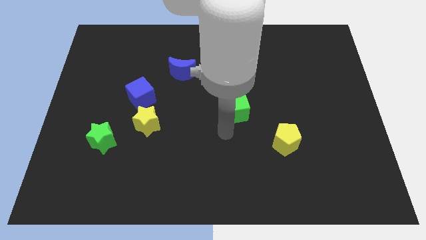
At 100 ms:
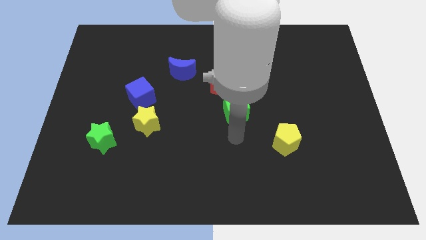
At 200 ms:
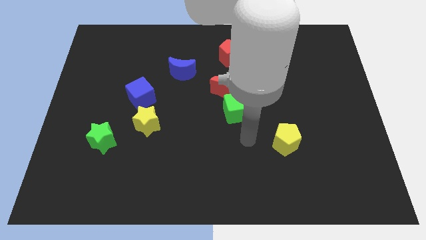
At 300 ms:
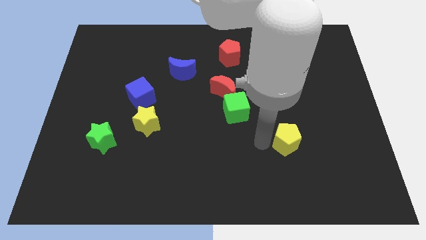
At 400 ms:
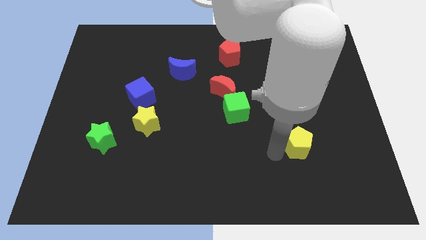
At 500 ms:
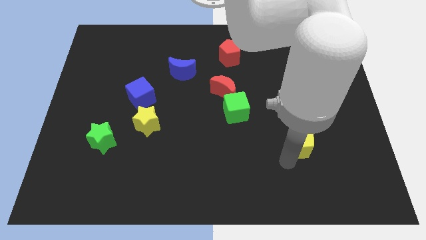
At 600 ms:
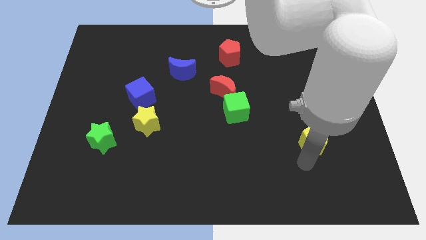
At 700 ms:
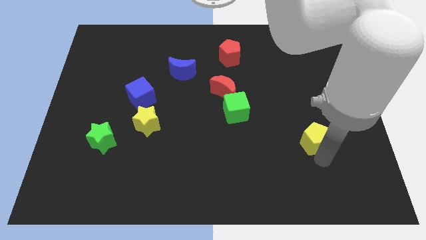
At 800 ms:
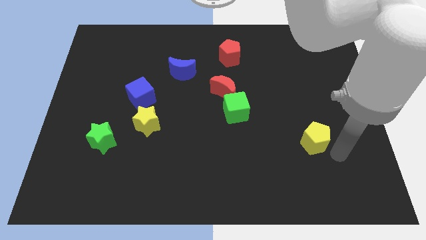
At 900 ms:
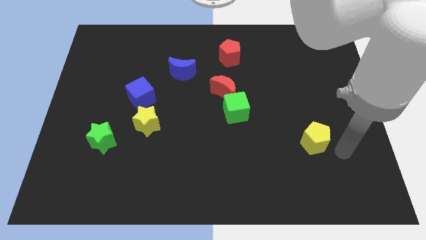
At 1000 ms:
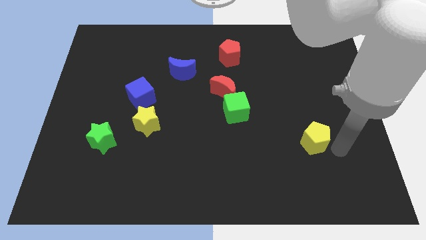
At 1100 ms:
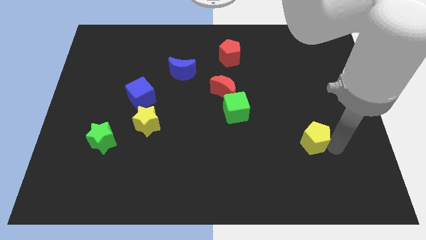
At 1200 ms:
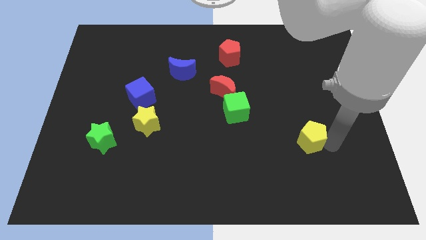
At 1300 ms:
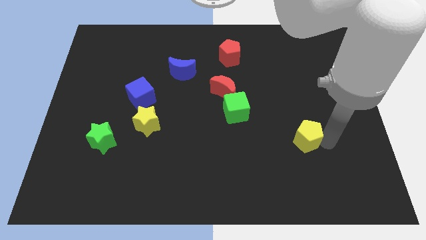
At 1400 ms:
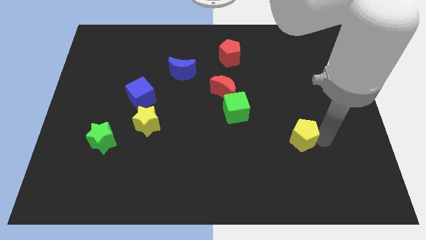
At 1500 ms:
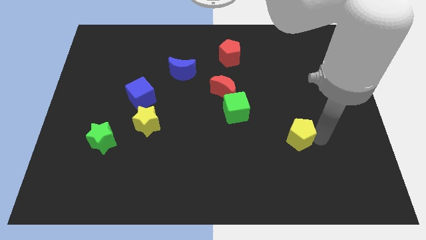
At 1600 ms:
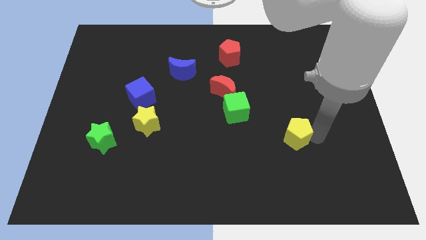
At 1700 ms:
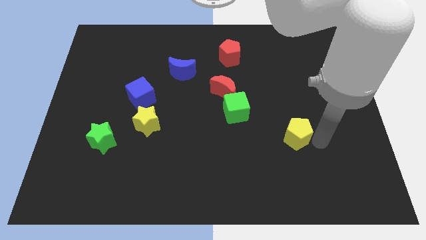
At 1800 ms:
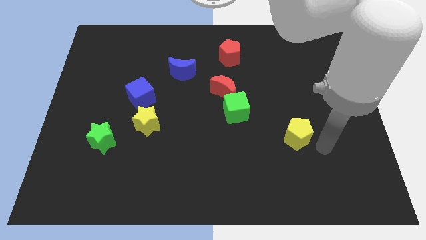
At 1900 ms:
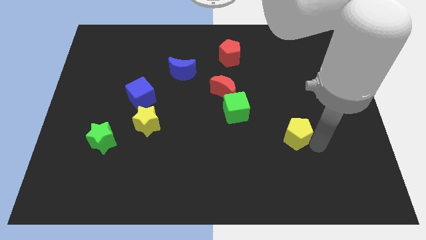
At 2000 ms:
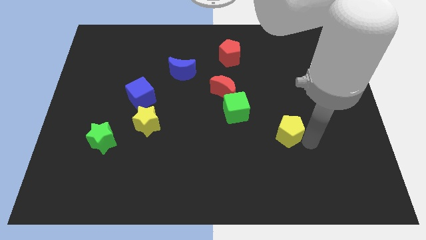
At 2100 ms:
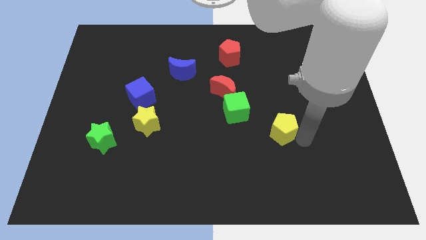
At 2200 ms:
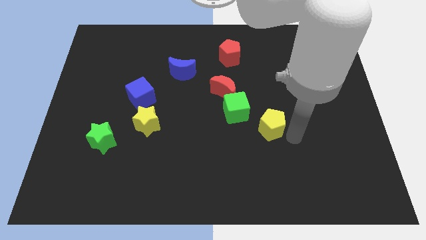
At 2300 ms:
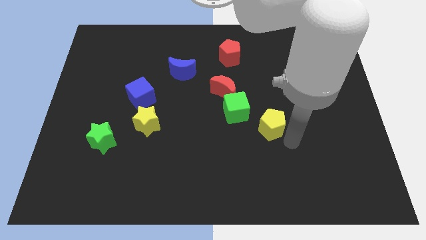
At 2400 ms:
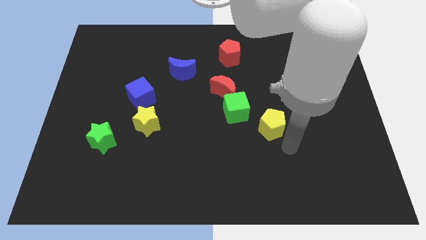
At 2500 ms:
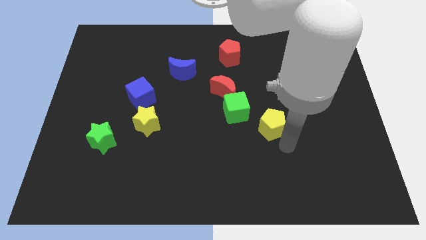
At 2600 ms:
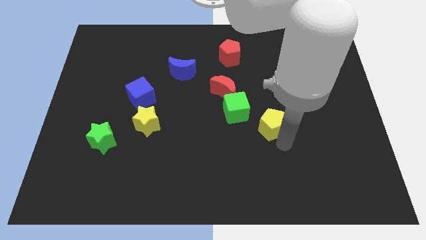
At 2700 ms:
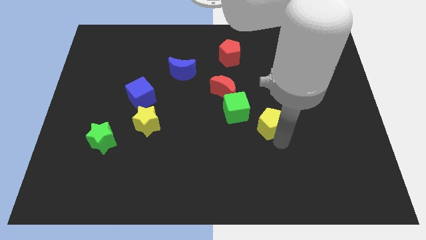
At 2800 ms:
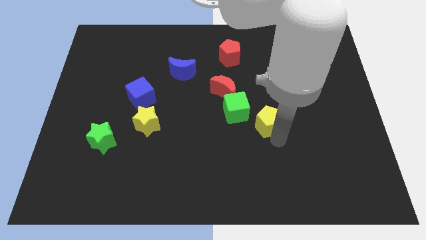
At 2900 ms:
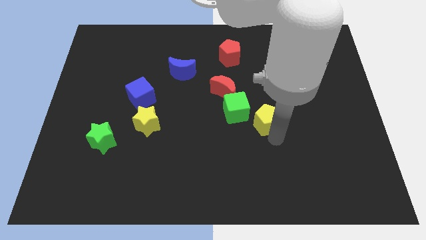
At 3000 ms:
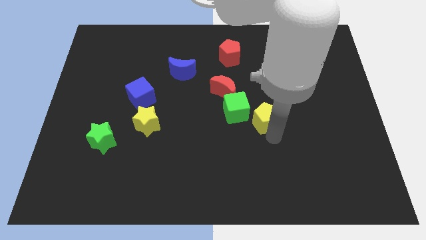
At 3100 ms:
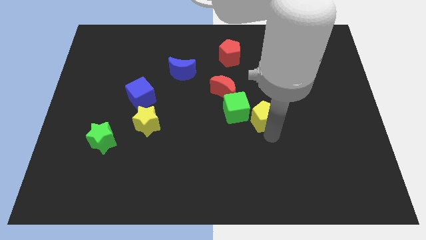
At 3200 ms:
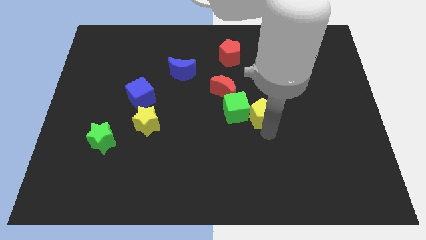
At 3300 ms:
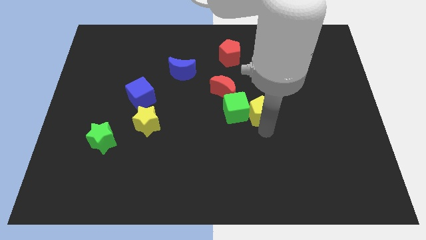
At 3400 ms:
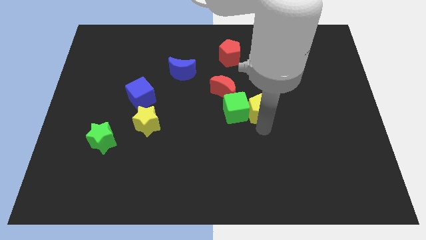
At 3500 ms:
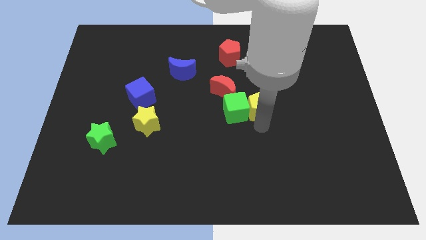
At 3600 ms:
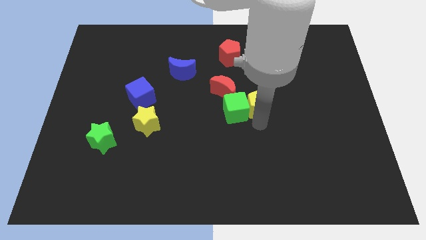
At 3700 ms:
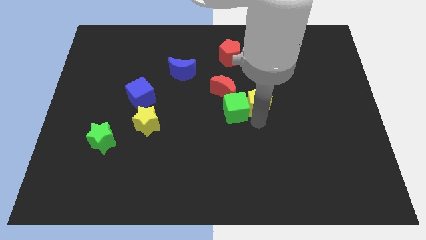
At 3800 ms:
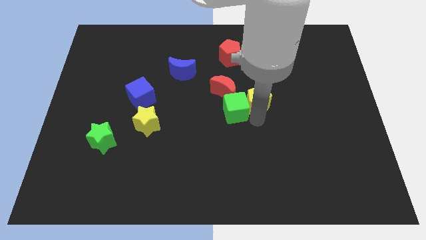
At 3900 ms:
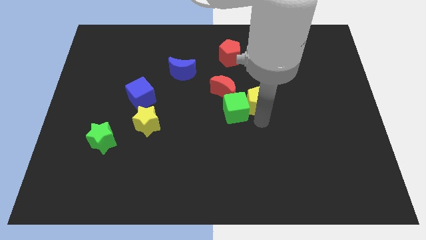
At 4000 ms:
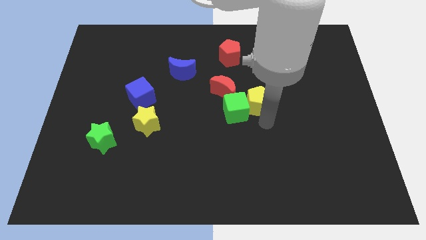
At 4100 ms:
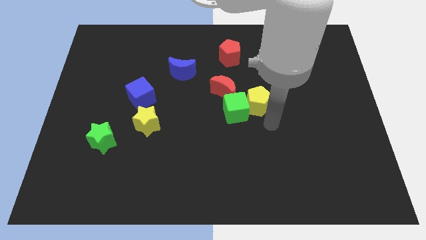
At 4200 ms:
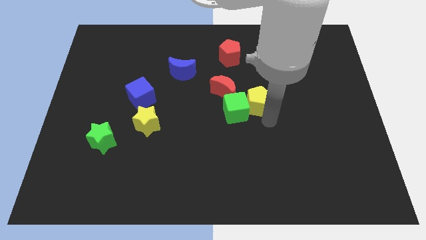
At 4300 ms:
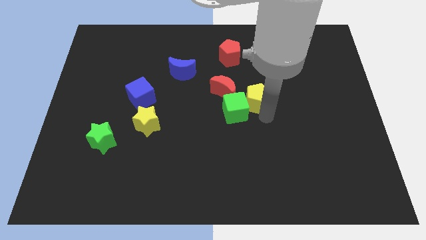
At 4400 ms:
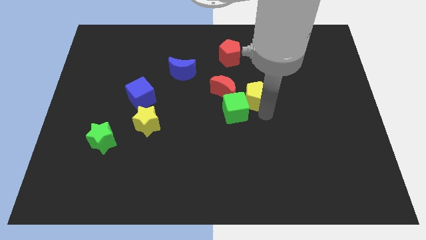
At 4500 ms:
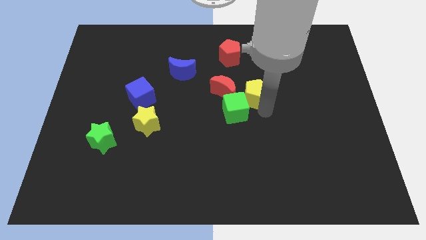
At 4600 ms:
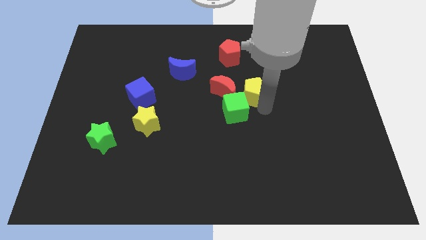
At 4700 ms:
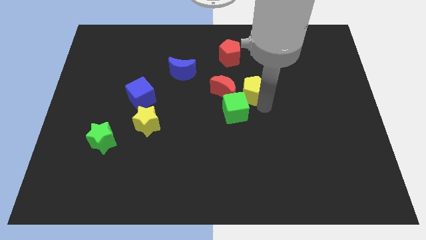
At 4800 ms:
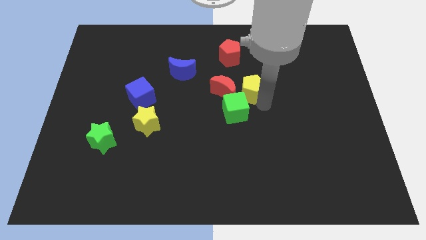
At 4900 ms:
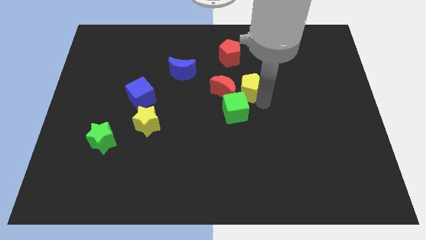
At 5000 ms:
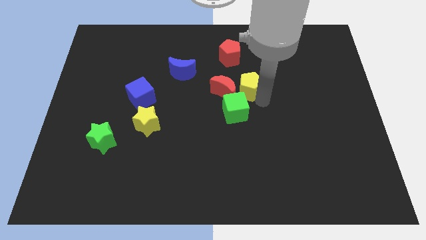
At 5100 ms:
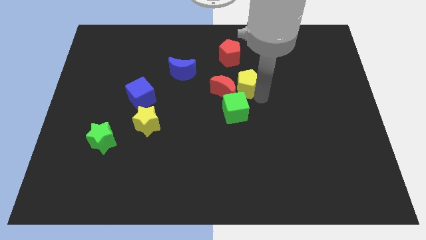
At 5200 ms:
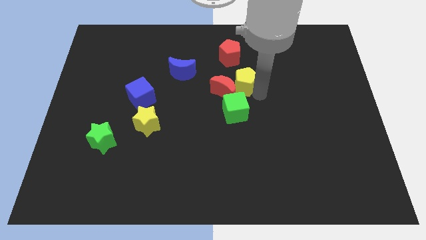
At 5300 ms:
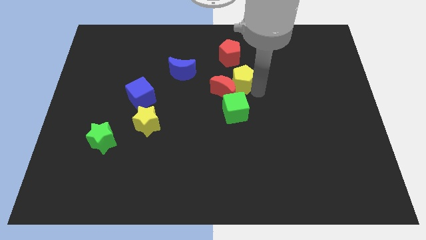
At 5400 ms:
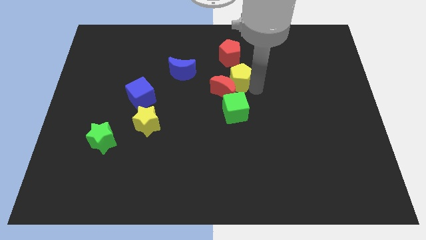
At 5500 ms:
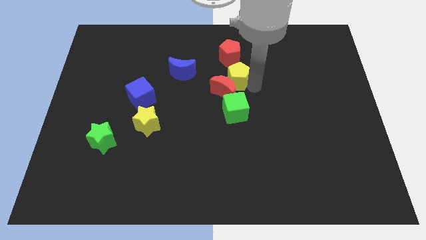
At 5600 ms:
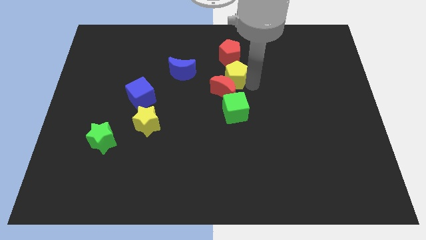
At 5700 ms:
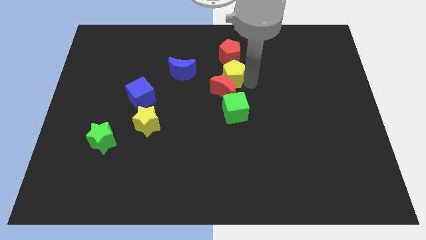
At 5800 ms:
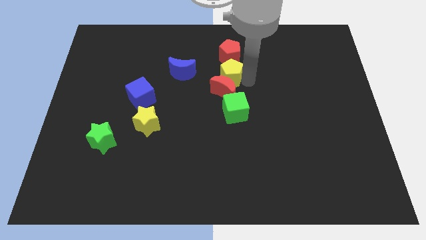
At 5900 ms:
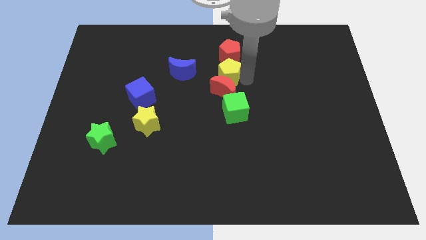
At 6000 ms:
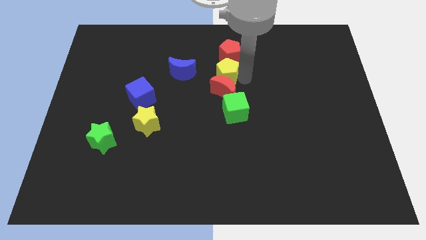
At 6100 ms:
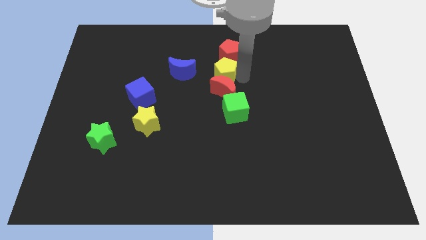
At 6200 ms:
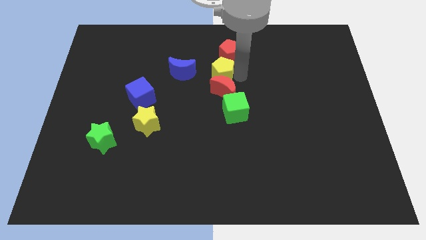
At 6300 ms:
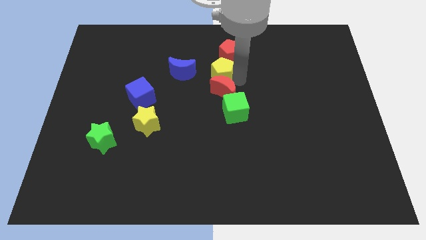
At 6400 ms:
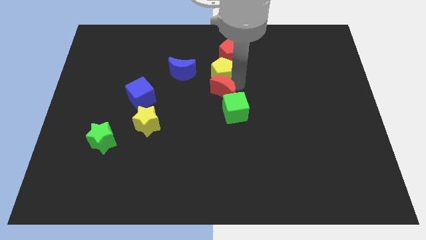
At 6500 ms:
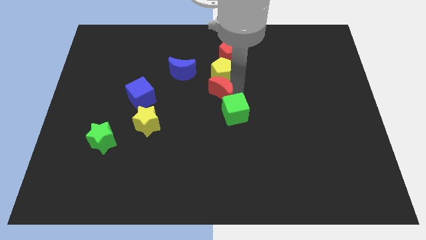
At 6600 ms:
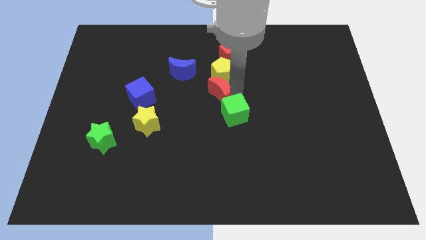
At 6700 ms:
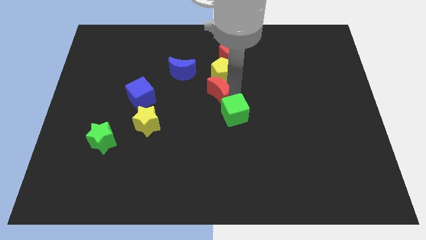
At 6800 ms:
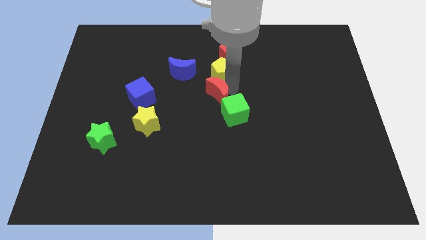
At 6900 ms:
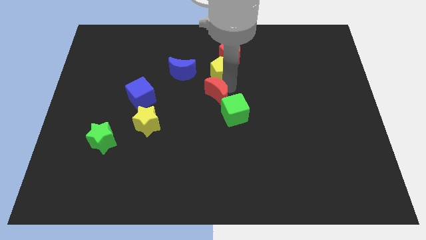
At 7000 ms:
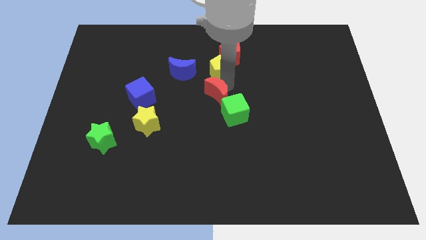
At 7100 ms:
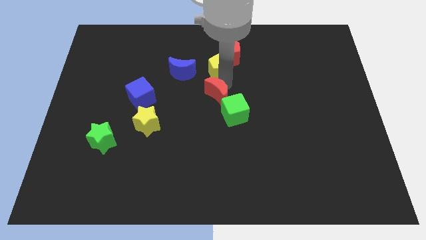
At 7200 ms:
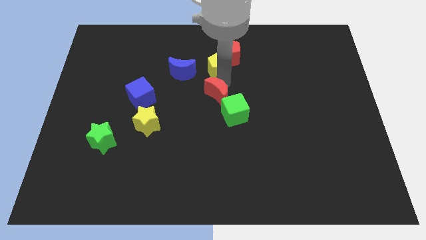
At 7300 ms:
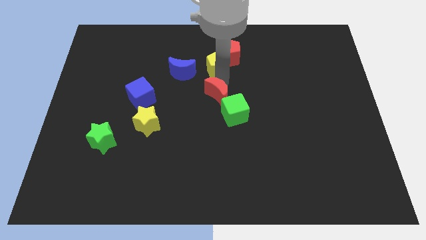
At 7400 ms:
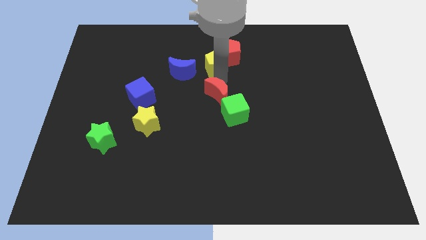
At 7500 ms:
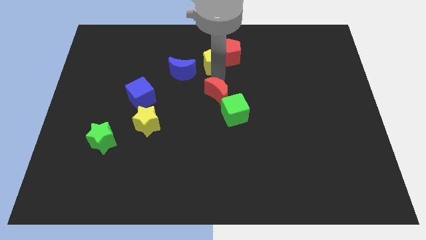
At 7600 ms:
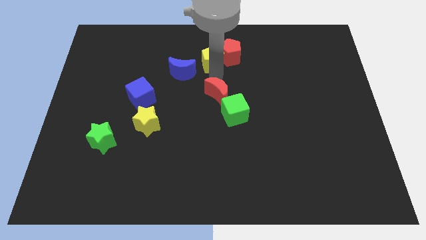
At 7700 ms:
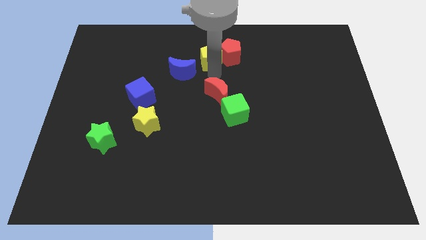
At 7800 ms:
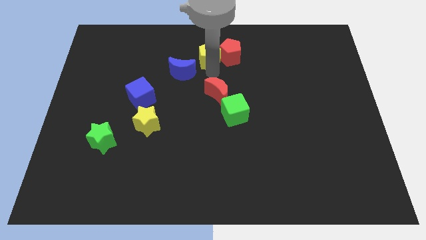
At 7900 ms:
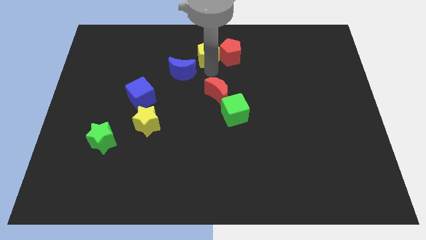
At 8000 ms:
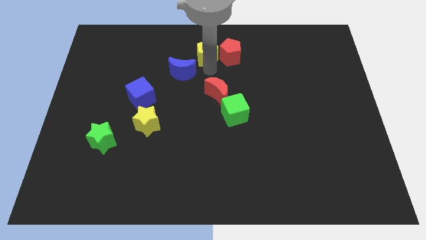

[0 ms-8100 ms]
move the yellow pentagon to the top side

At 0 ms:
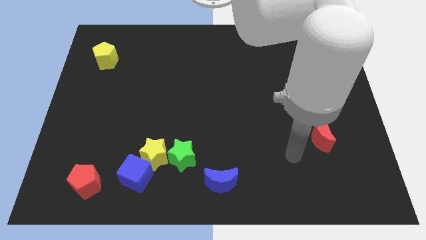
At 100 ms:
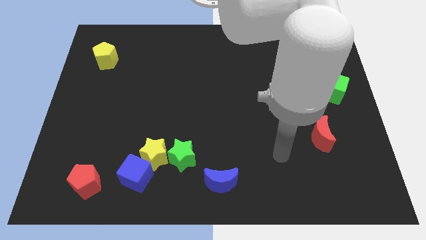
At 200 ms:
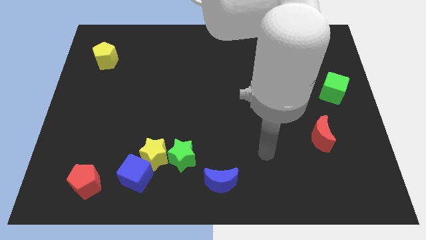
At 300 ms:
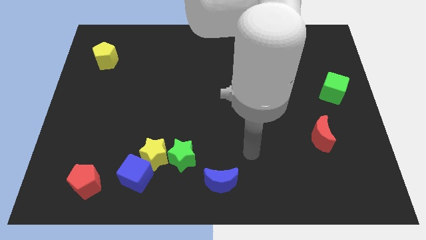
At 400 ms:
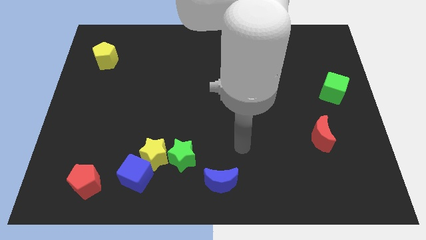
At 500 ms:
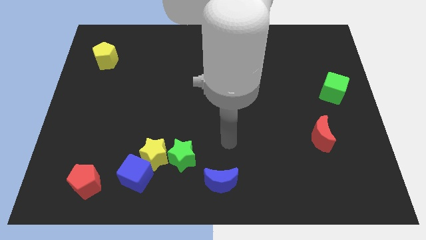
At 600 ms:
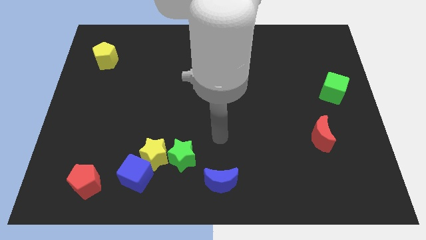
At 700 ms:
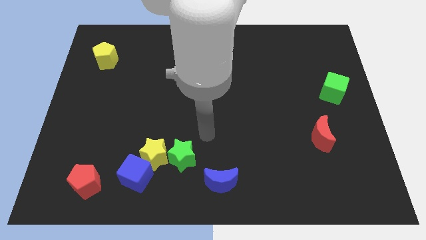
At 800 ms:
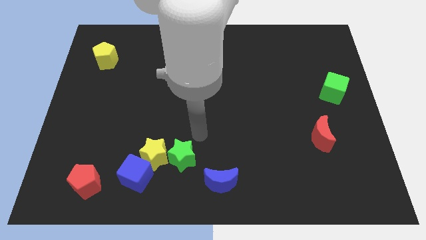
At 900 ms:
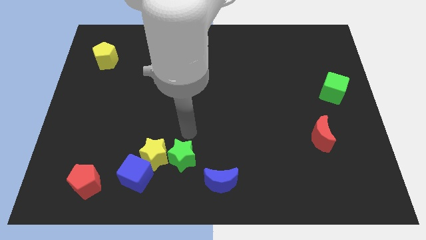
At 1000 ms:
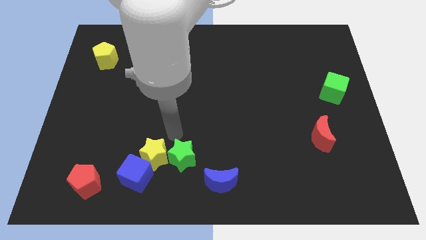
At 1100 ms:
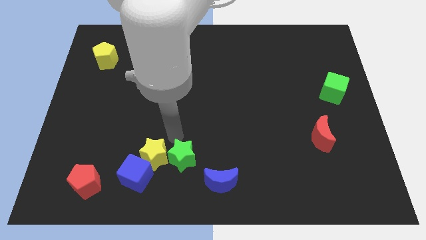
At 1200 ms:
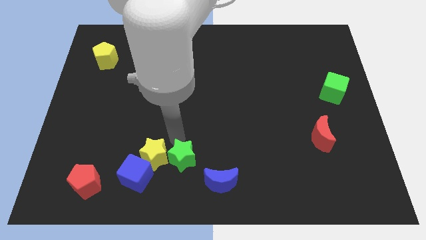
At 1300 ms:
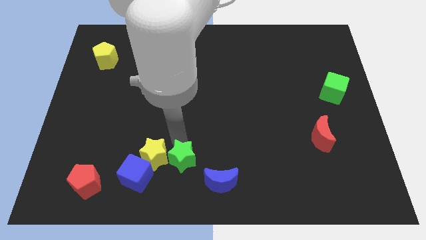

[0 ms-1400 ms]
push the green star to the bottom
